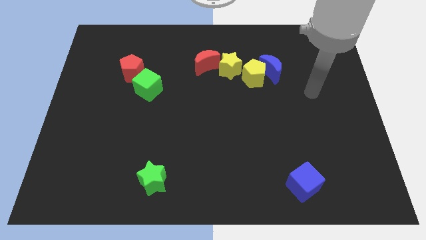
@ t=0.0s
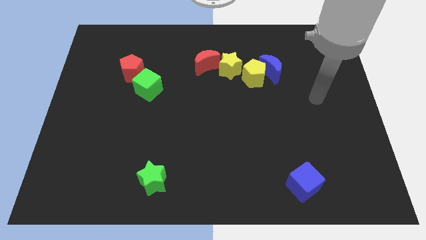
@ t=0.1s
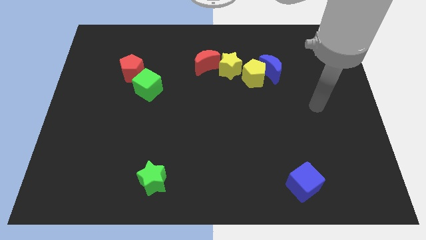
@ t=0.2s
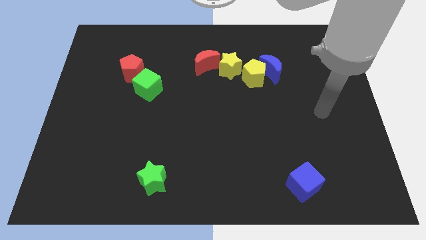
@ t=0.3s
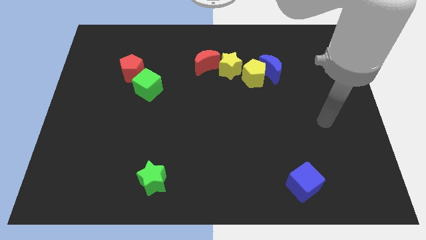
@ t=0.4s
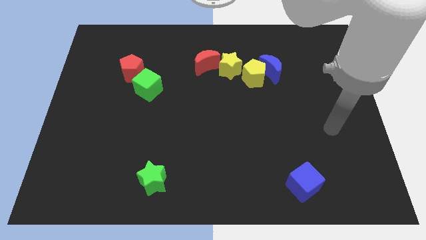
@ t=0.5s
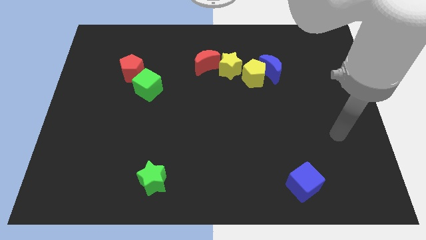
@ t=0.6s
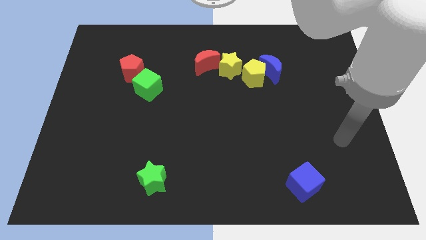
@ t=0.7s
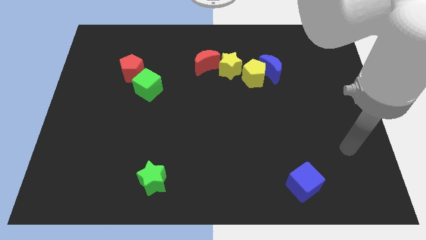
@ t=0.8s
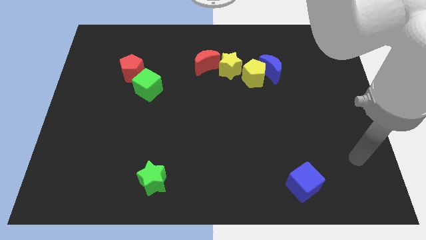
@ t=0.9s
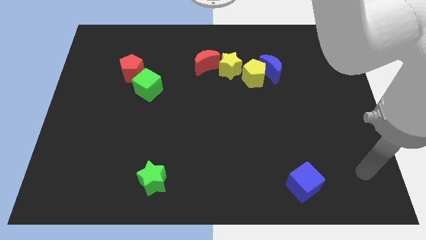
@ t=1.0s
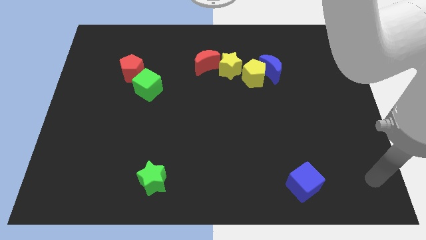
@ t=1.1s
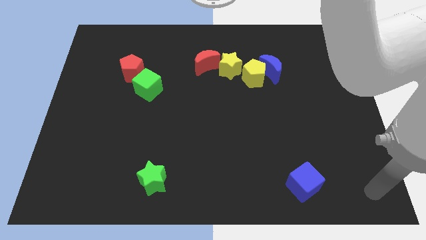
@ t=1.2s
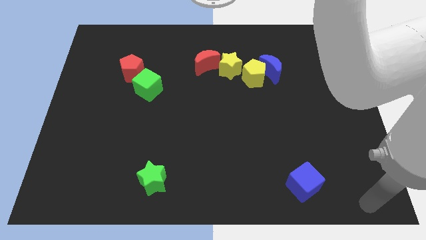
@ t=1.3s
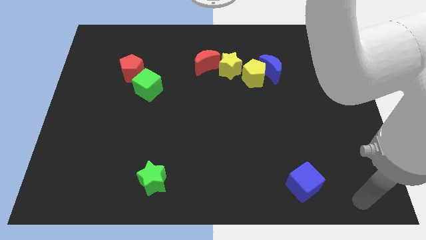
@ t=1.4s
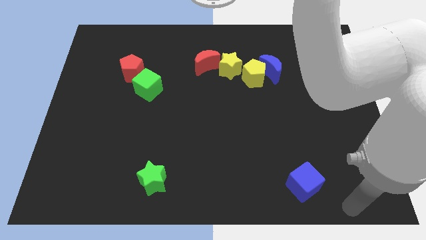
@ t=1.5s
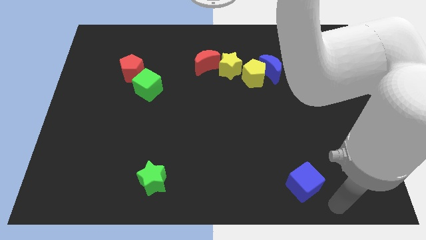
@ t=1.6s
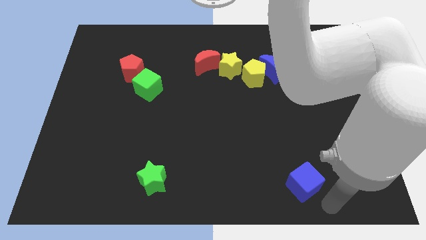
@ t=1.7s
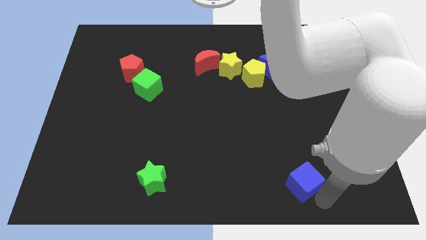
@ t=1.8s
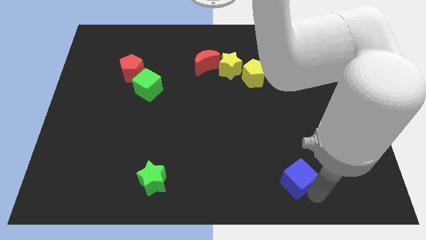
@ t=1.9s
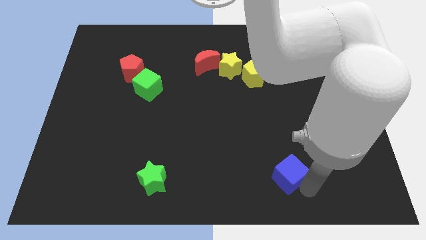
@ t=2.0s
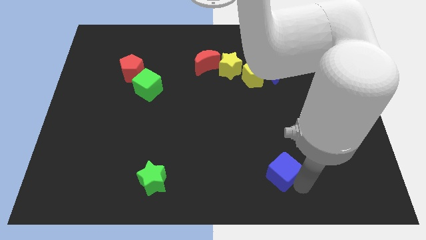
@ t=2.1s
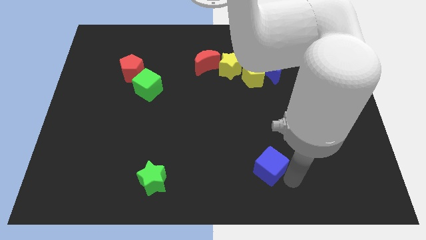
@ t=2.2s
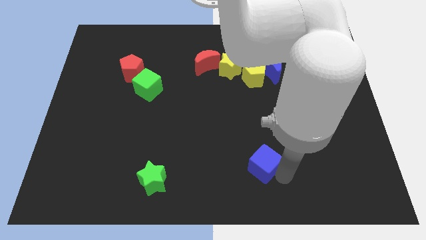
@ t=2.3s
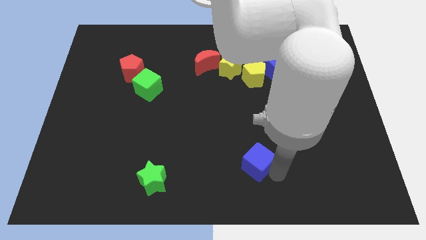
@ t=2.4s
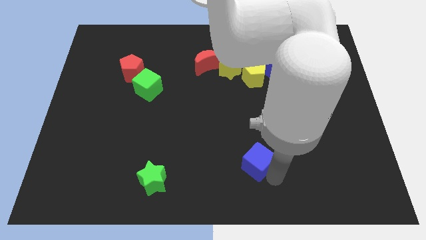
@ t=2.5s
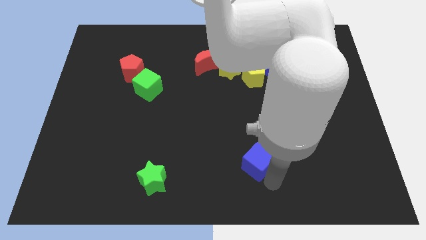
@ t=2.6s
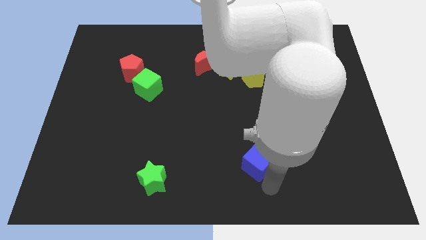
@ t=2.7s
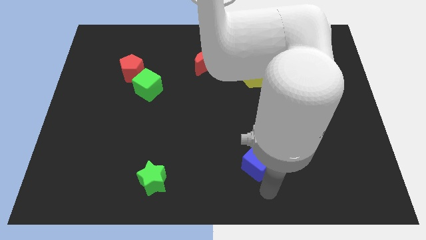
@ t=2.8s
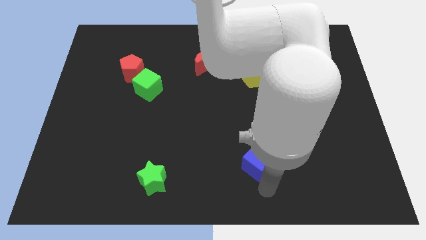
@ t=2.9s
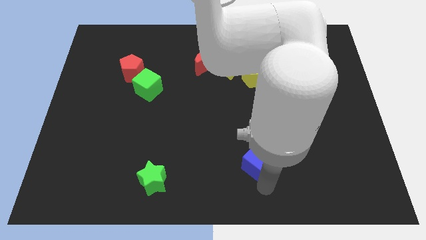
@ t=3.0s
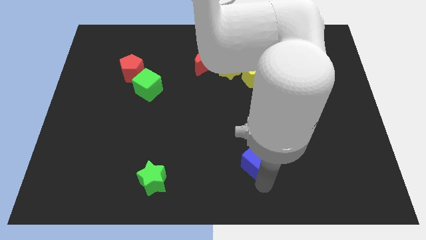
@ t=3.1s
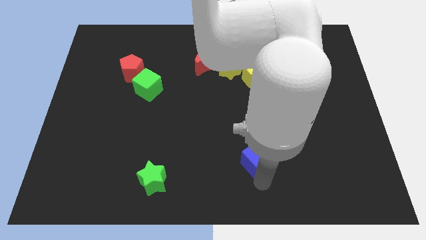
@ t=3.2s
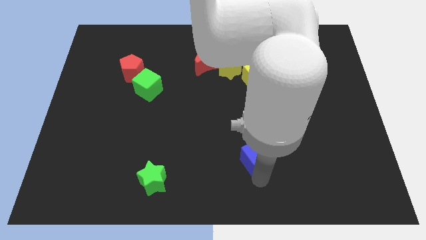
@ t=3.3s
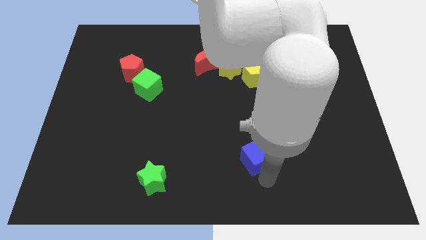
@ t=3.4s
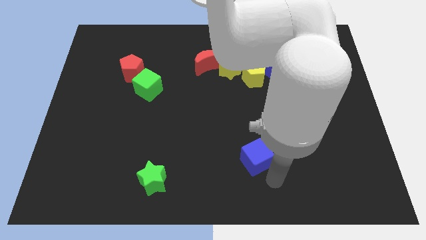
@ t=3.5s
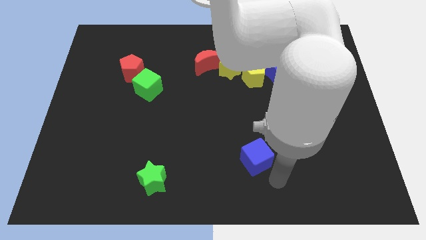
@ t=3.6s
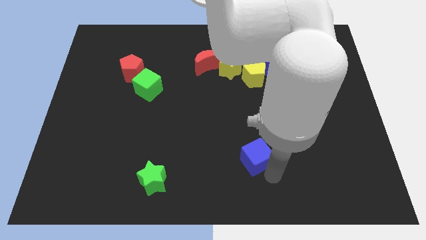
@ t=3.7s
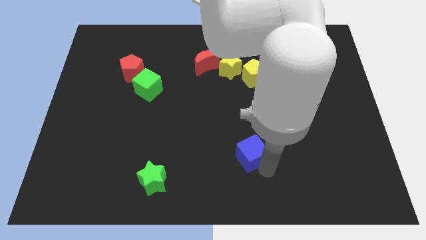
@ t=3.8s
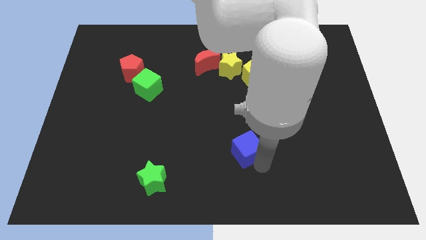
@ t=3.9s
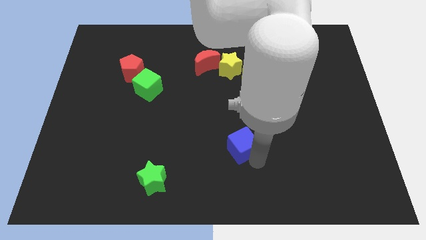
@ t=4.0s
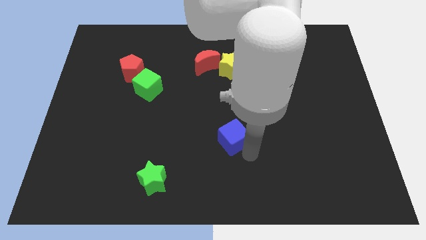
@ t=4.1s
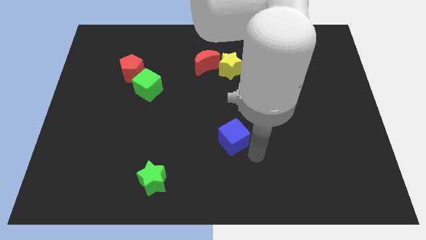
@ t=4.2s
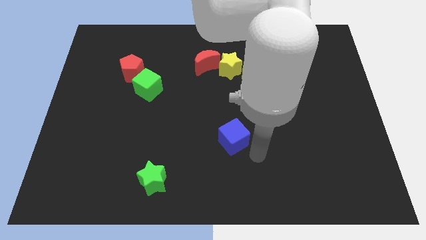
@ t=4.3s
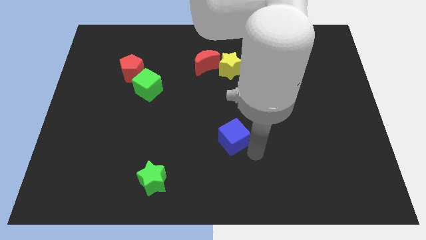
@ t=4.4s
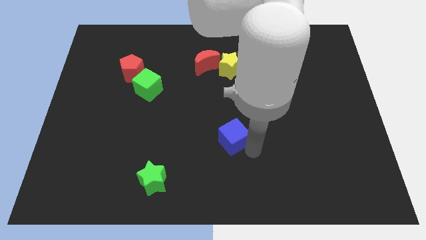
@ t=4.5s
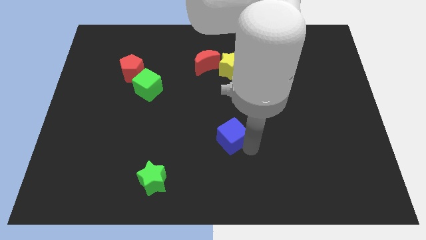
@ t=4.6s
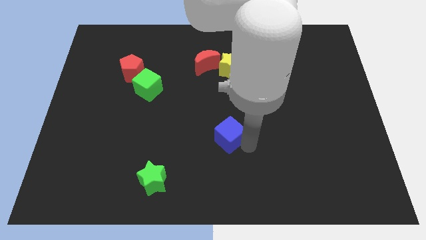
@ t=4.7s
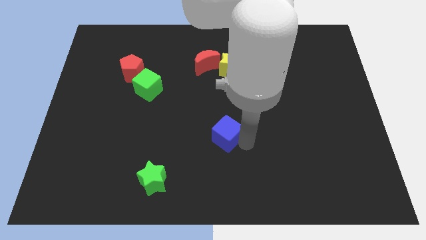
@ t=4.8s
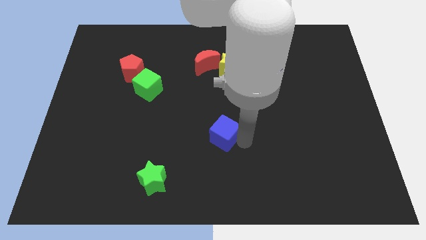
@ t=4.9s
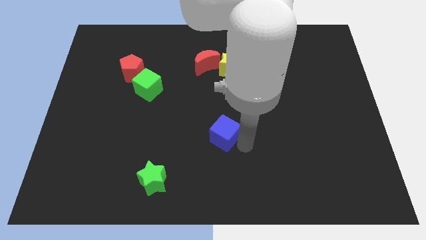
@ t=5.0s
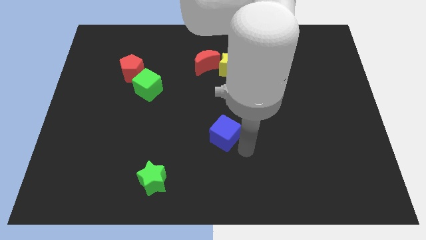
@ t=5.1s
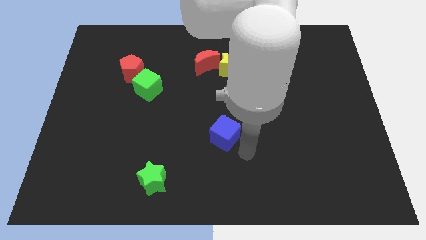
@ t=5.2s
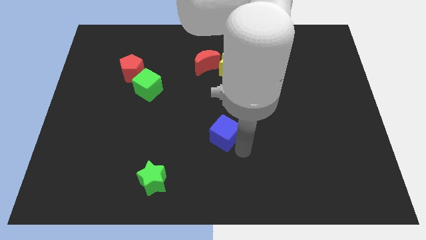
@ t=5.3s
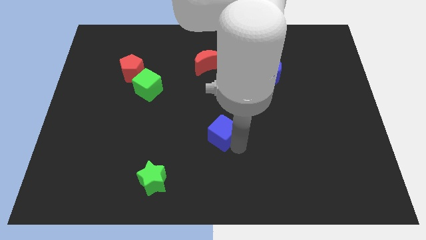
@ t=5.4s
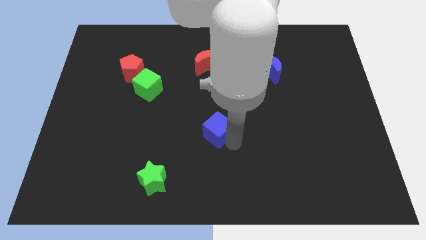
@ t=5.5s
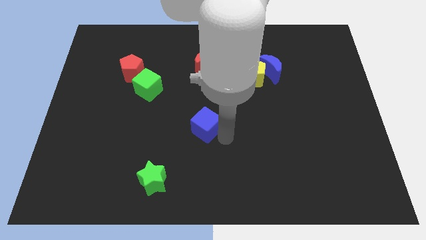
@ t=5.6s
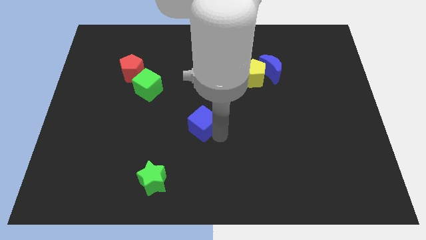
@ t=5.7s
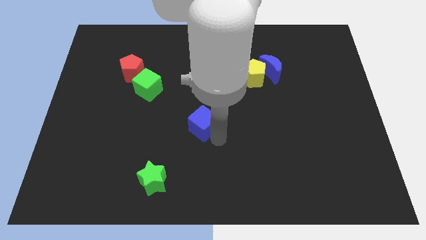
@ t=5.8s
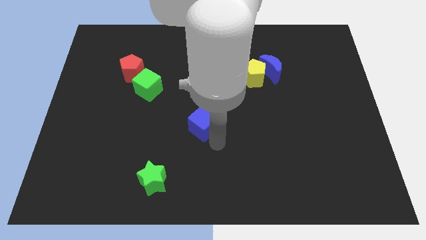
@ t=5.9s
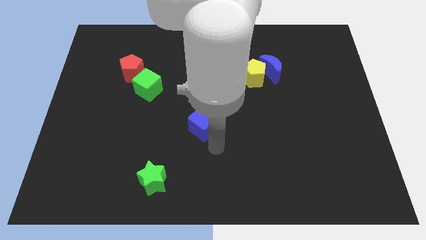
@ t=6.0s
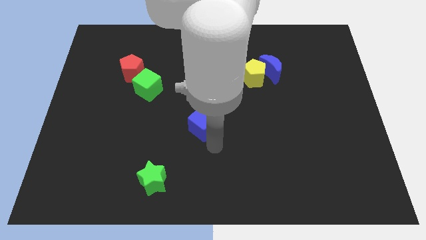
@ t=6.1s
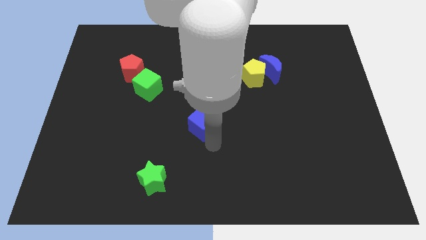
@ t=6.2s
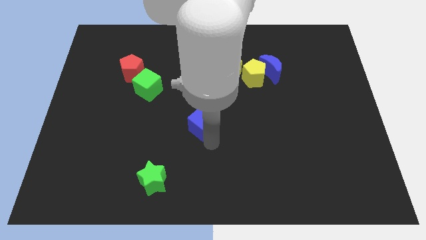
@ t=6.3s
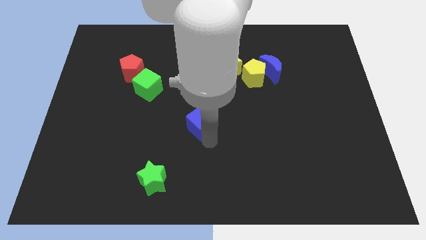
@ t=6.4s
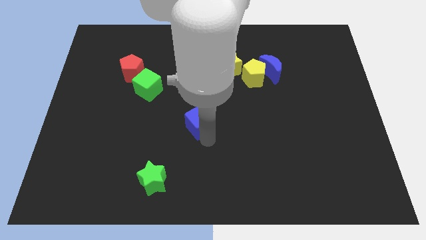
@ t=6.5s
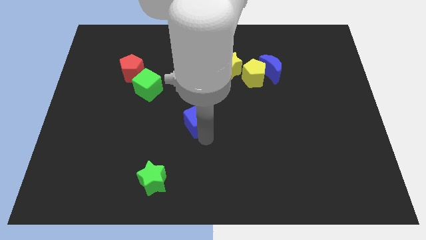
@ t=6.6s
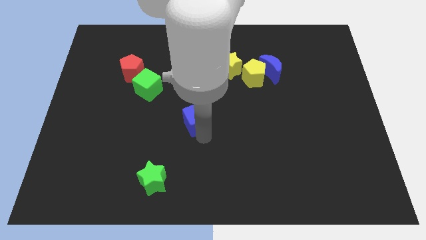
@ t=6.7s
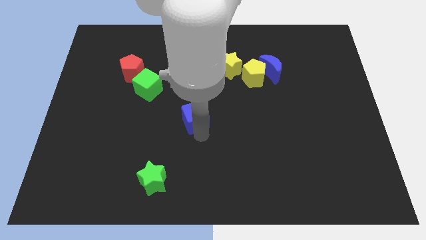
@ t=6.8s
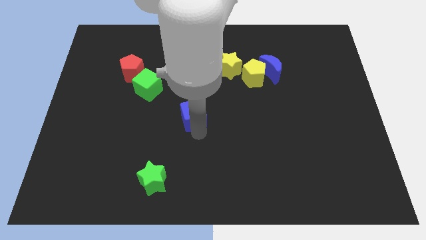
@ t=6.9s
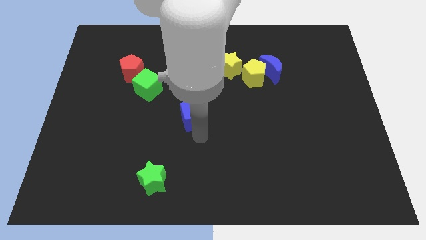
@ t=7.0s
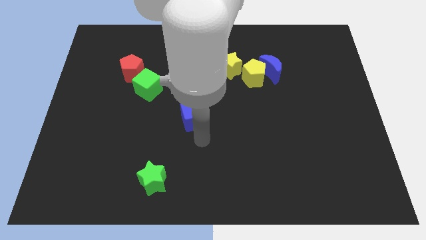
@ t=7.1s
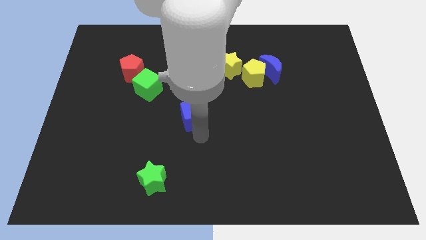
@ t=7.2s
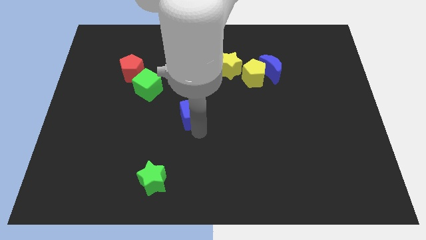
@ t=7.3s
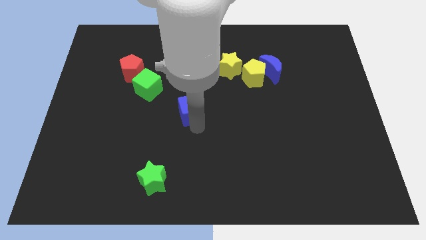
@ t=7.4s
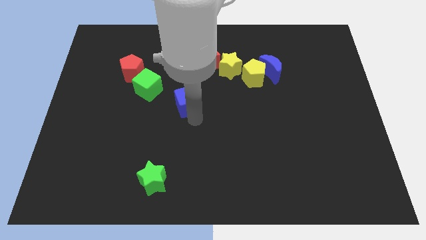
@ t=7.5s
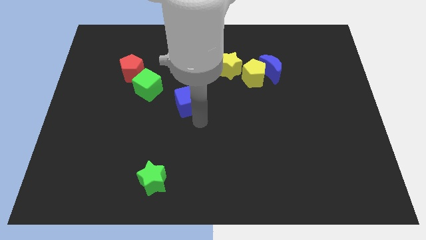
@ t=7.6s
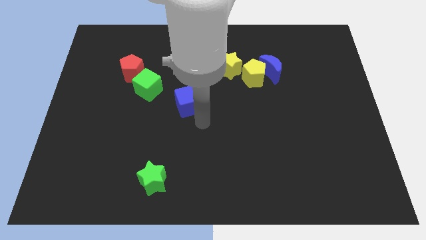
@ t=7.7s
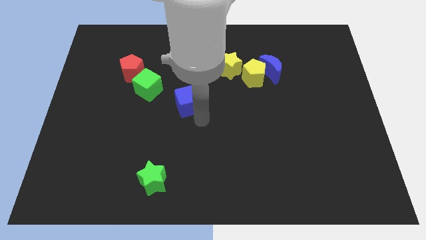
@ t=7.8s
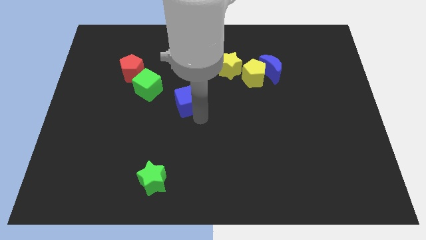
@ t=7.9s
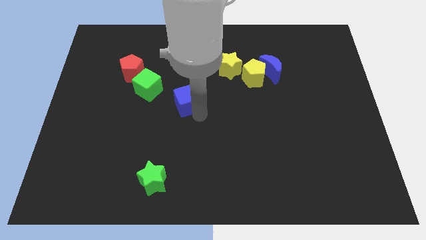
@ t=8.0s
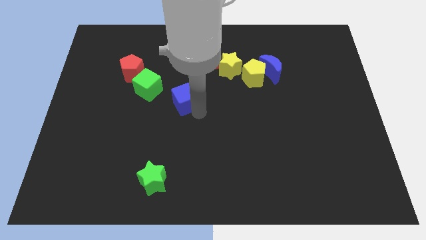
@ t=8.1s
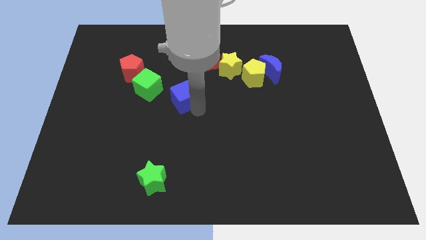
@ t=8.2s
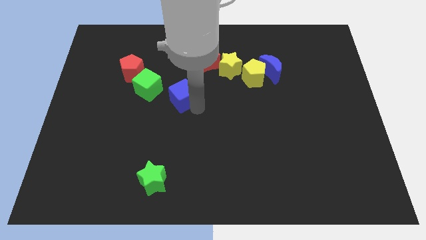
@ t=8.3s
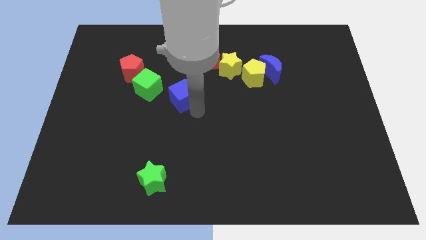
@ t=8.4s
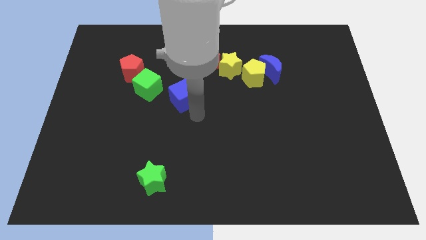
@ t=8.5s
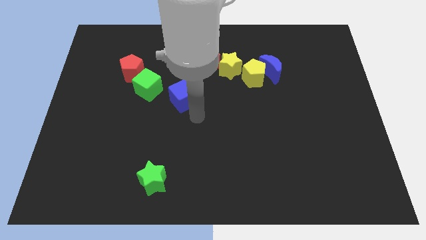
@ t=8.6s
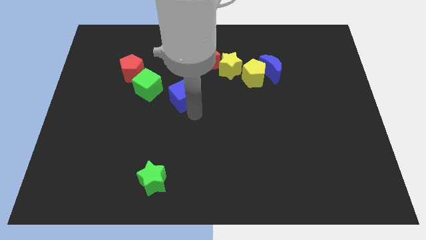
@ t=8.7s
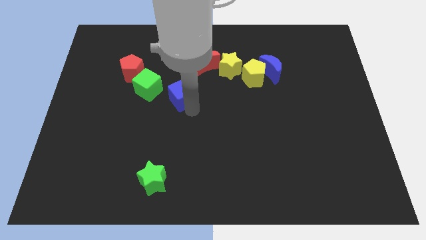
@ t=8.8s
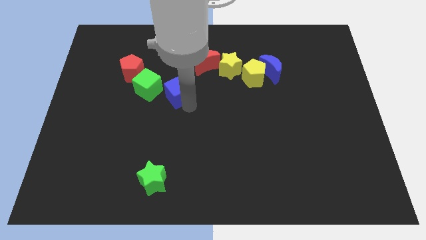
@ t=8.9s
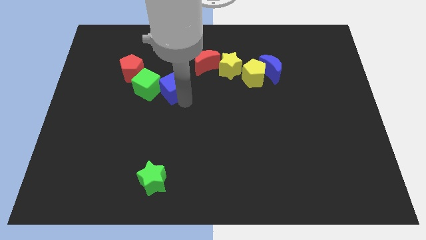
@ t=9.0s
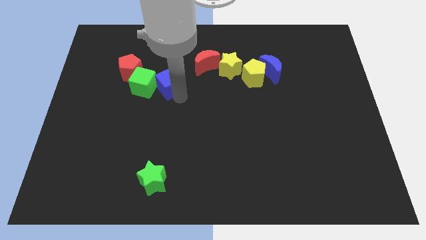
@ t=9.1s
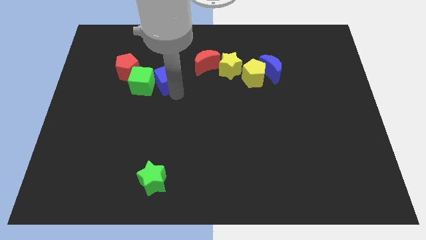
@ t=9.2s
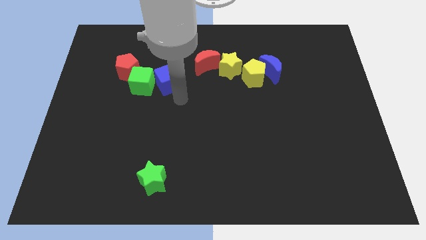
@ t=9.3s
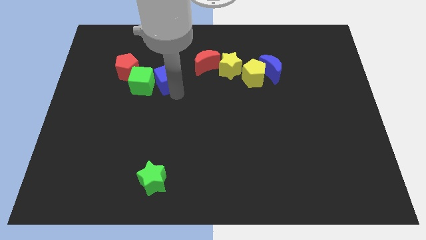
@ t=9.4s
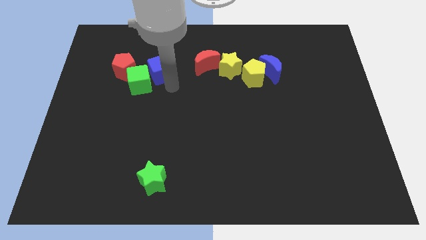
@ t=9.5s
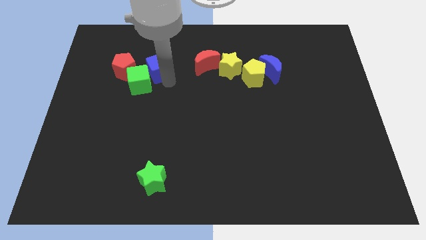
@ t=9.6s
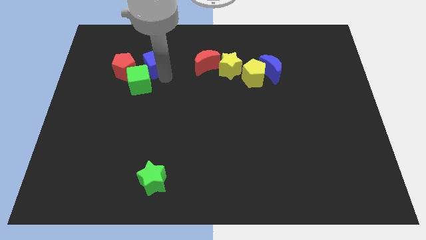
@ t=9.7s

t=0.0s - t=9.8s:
move the blue cube to the top right side of the red pentagon
